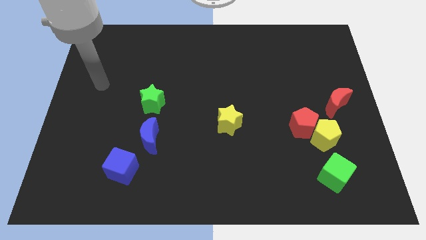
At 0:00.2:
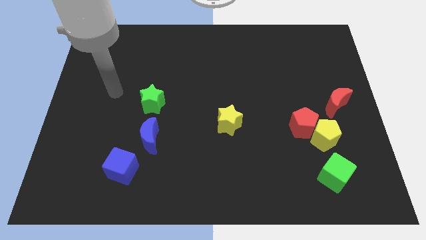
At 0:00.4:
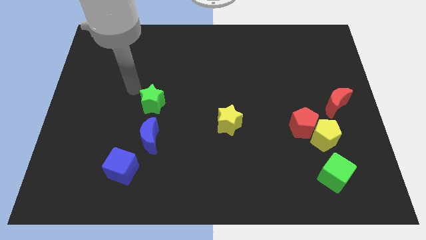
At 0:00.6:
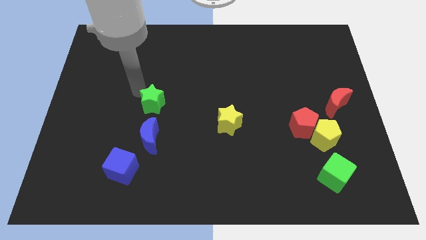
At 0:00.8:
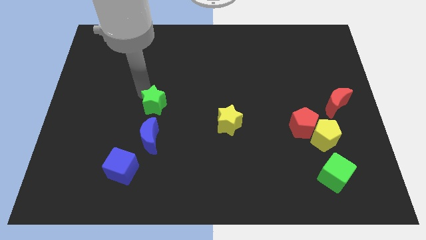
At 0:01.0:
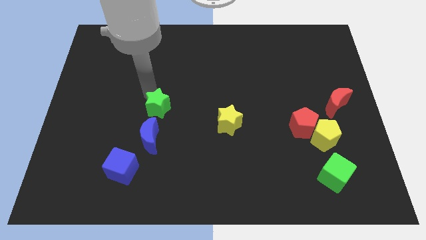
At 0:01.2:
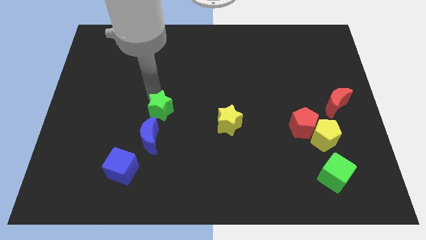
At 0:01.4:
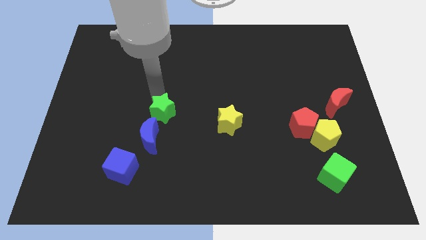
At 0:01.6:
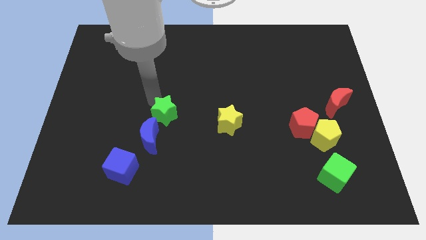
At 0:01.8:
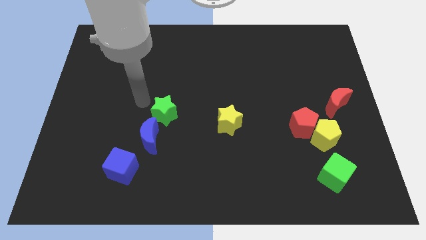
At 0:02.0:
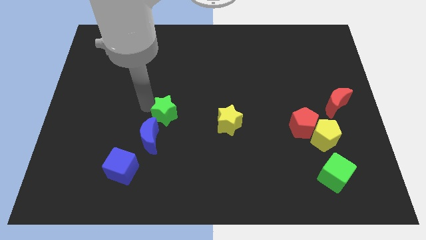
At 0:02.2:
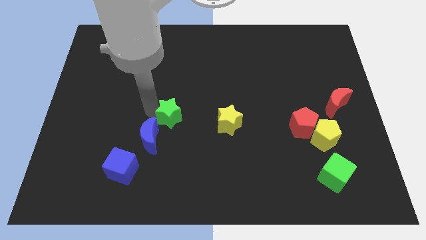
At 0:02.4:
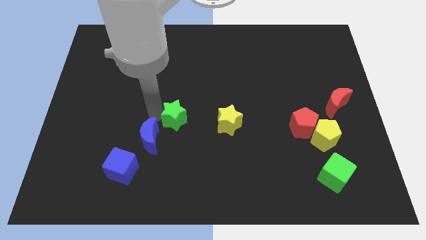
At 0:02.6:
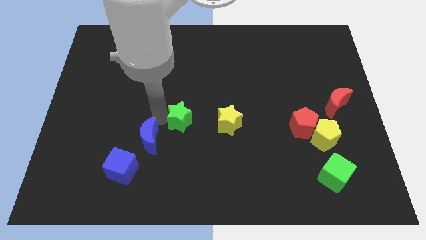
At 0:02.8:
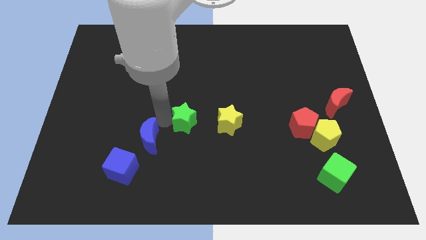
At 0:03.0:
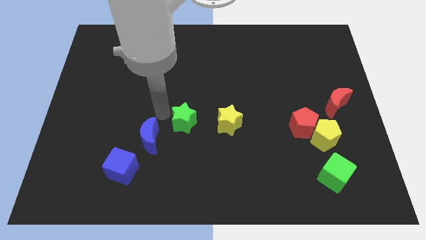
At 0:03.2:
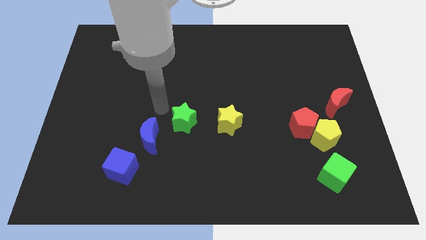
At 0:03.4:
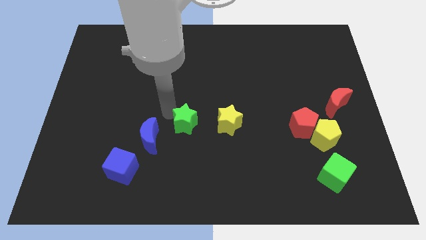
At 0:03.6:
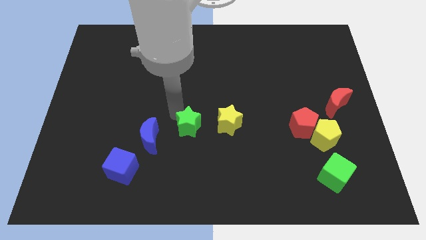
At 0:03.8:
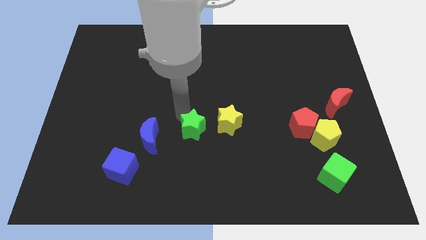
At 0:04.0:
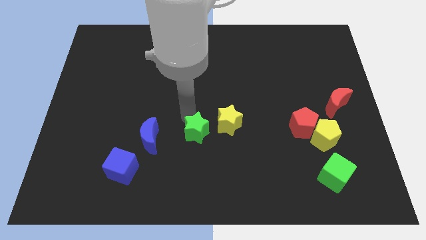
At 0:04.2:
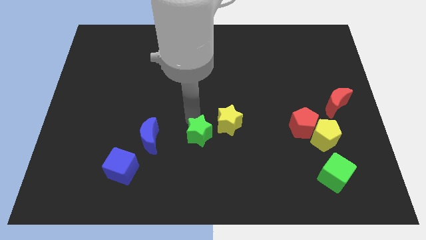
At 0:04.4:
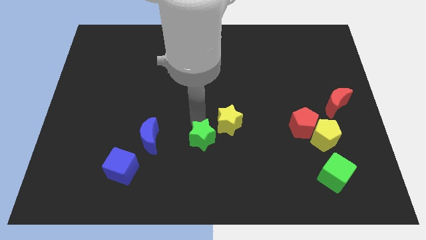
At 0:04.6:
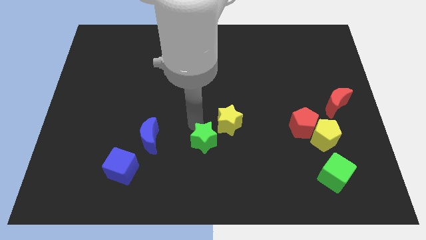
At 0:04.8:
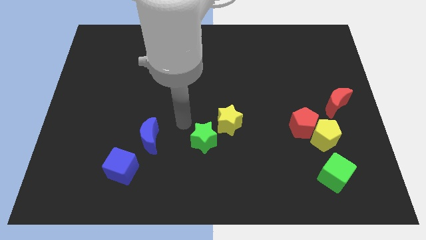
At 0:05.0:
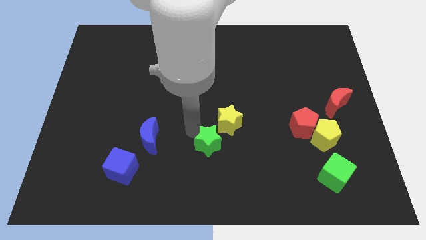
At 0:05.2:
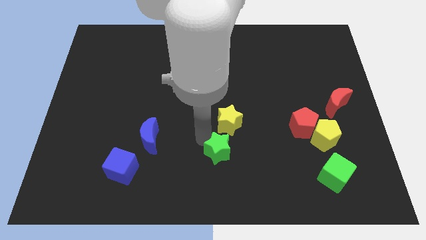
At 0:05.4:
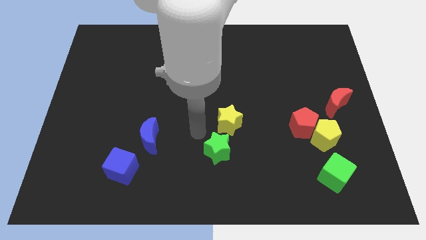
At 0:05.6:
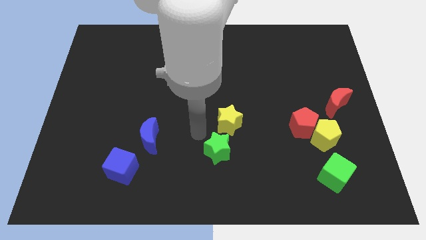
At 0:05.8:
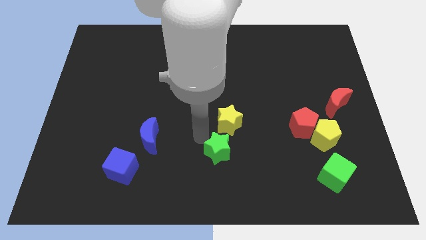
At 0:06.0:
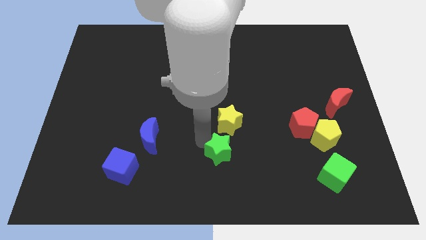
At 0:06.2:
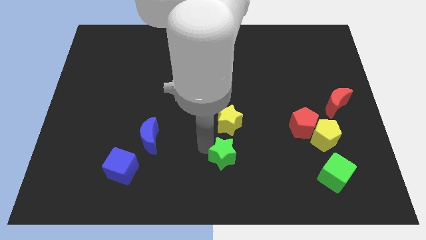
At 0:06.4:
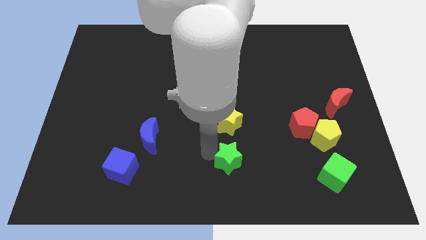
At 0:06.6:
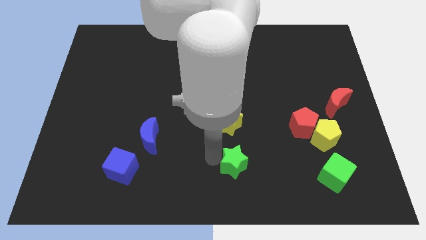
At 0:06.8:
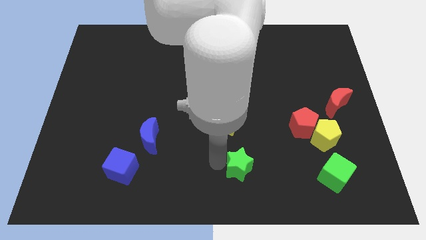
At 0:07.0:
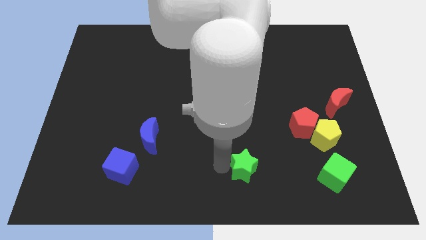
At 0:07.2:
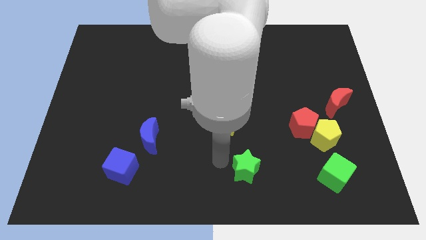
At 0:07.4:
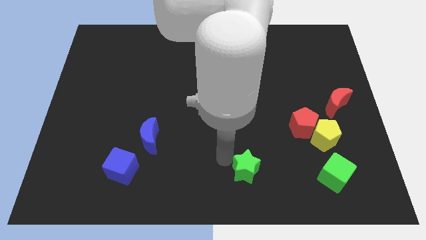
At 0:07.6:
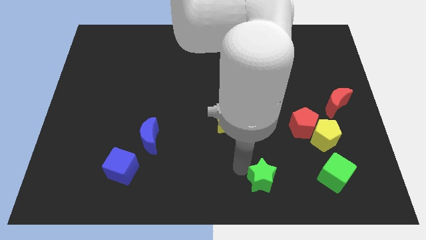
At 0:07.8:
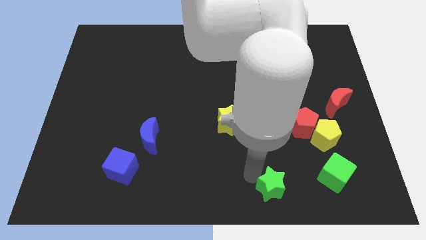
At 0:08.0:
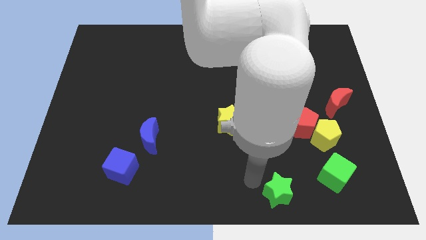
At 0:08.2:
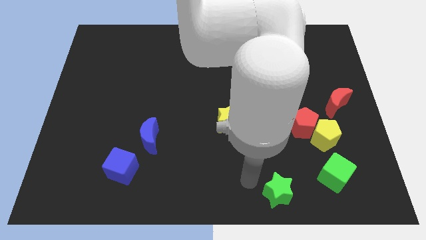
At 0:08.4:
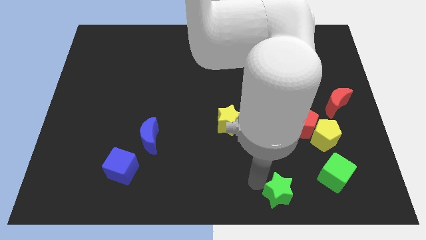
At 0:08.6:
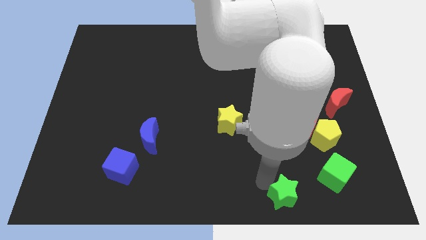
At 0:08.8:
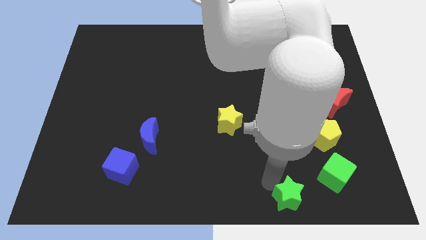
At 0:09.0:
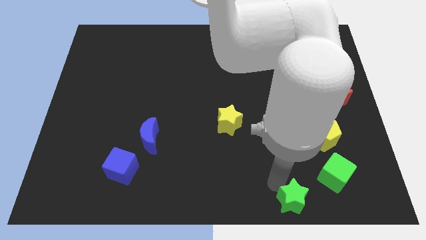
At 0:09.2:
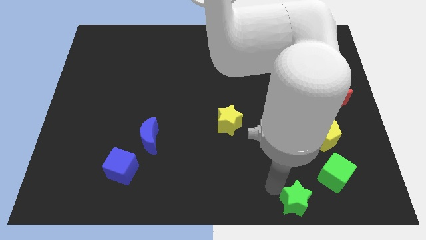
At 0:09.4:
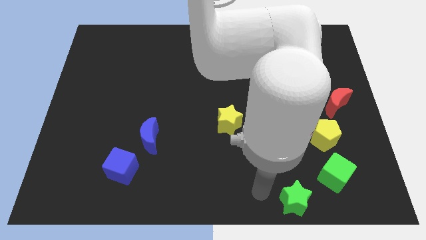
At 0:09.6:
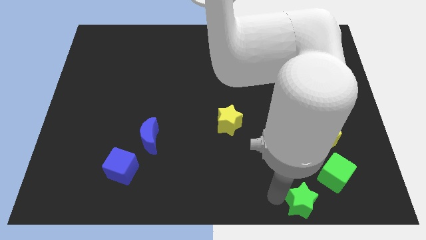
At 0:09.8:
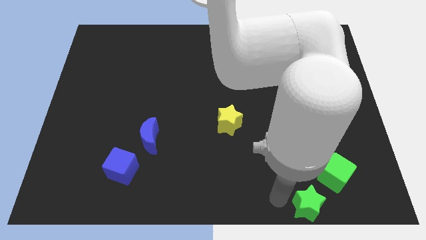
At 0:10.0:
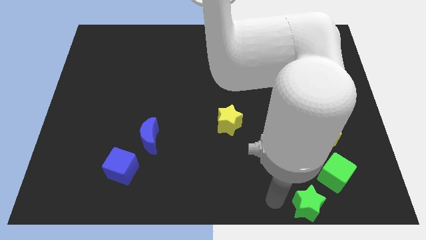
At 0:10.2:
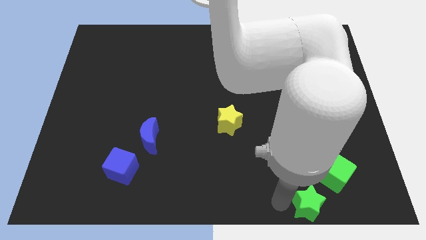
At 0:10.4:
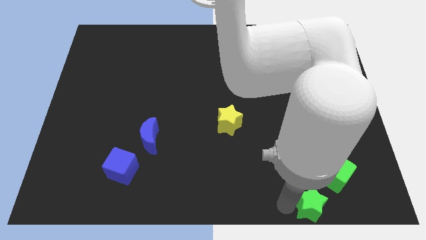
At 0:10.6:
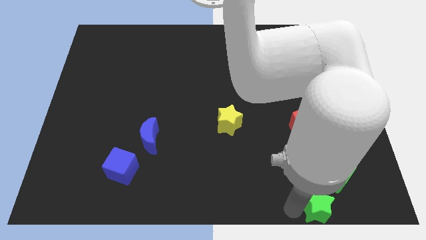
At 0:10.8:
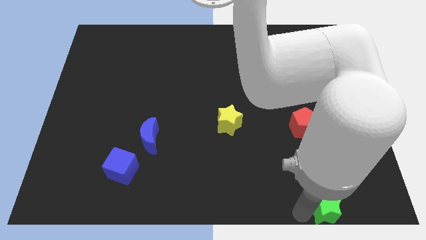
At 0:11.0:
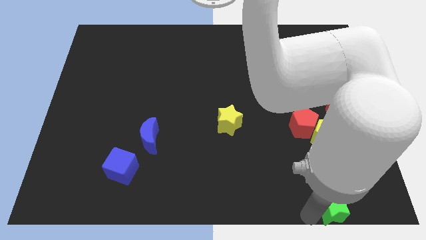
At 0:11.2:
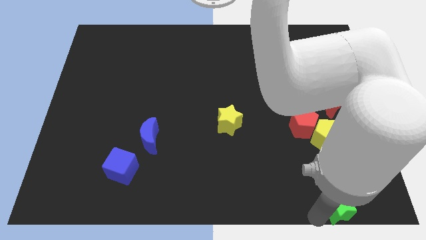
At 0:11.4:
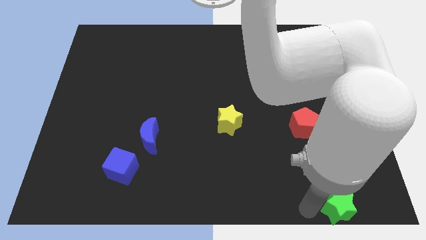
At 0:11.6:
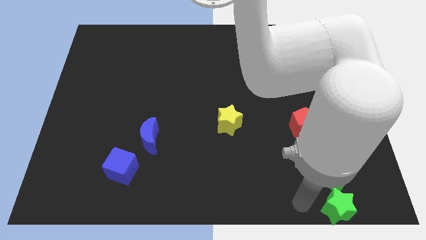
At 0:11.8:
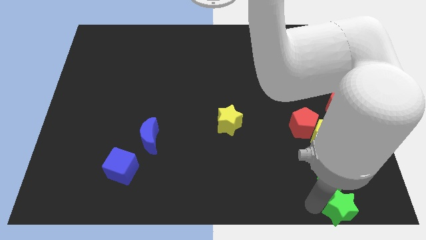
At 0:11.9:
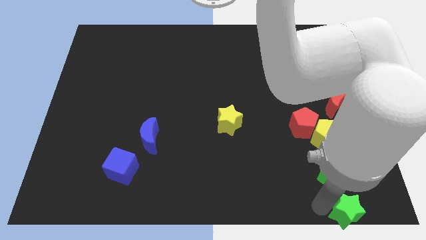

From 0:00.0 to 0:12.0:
put the green star to the bottom right corner

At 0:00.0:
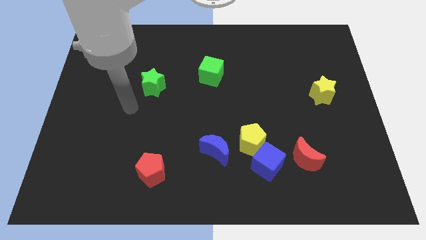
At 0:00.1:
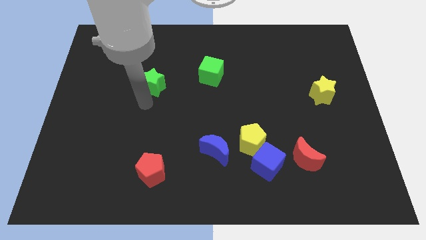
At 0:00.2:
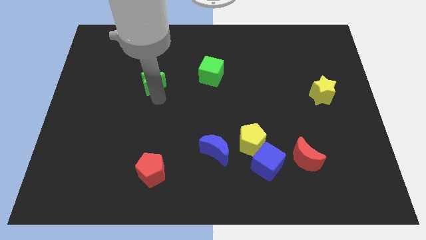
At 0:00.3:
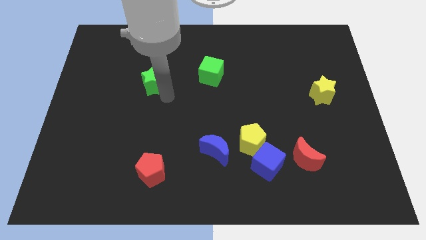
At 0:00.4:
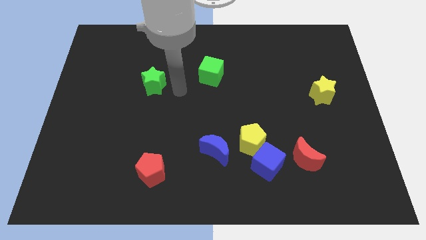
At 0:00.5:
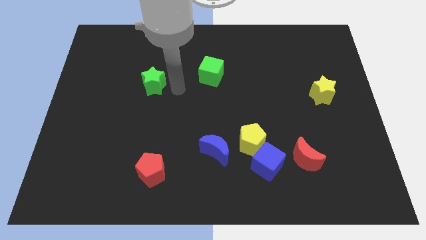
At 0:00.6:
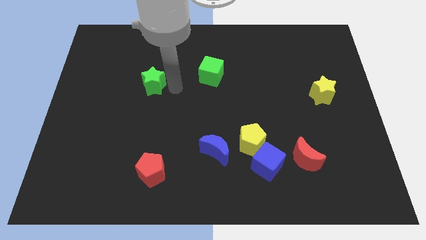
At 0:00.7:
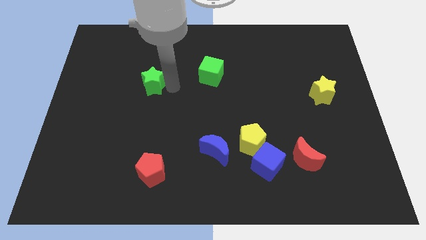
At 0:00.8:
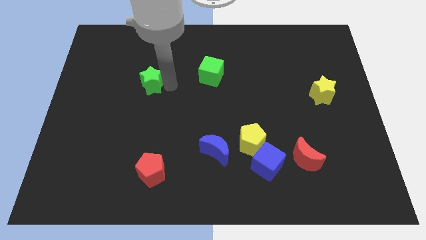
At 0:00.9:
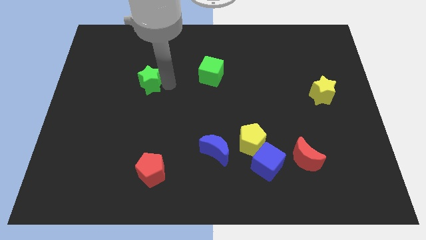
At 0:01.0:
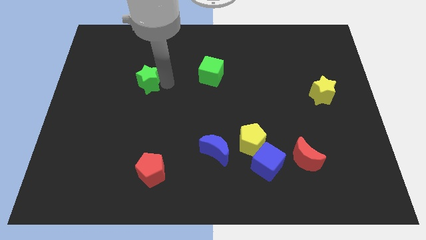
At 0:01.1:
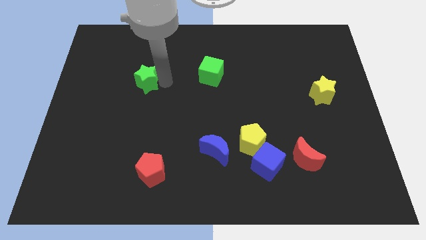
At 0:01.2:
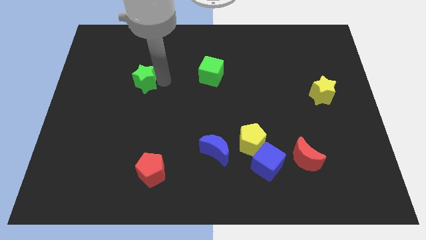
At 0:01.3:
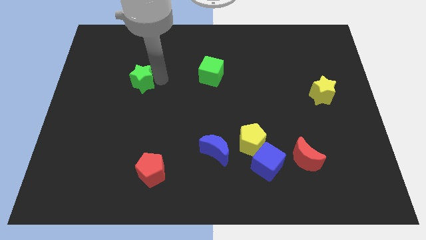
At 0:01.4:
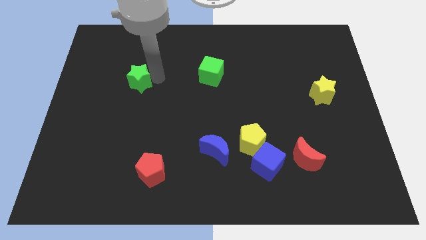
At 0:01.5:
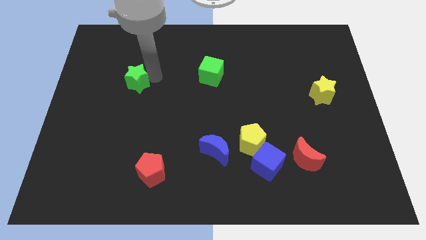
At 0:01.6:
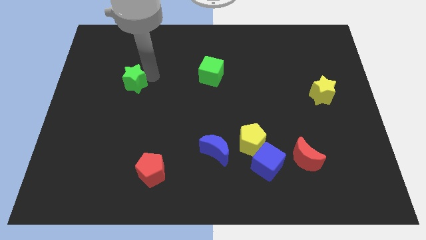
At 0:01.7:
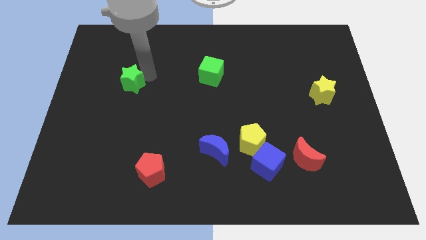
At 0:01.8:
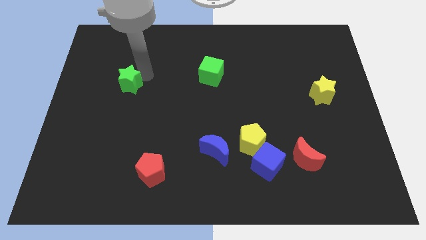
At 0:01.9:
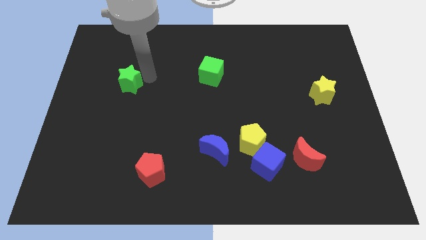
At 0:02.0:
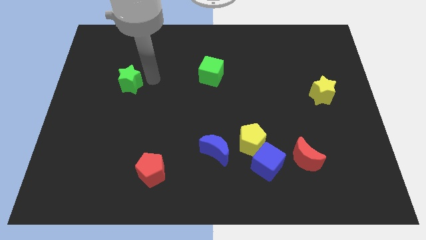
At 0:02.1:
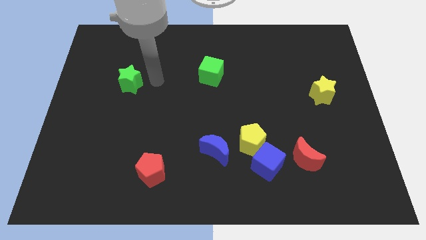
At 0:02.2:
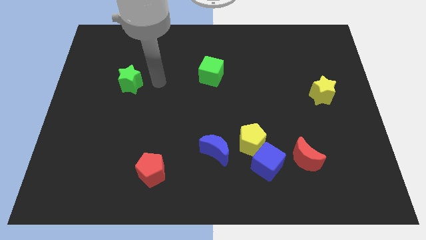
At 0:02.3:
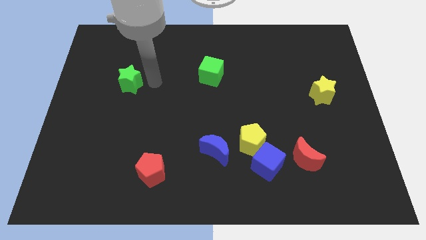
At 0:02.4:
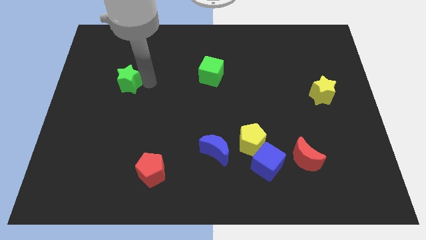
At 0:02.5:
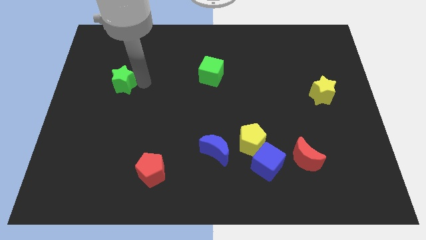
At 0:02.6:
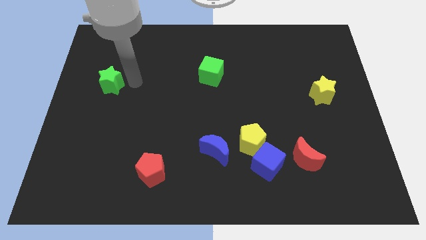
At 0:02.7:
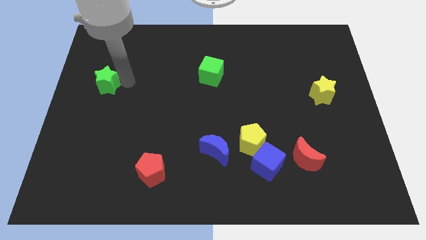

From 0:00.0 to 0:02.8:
slide the green star to the center left
